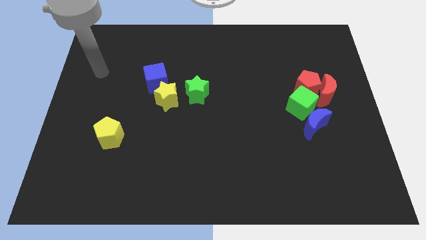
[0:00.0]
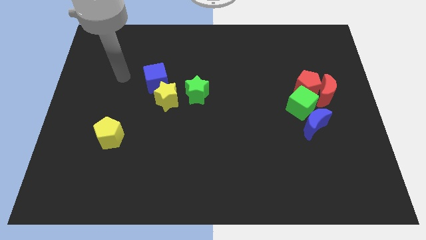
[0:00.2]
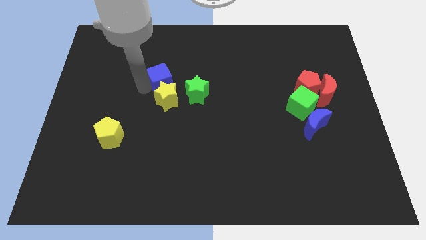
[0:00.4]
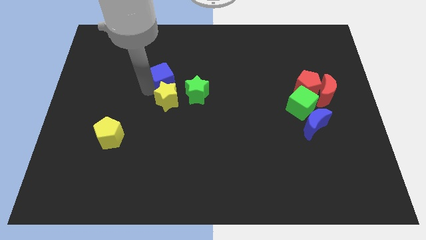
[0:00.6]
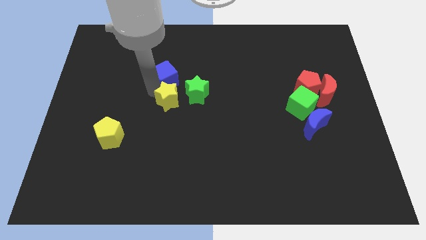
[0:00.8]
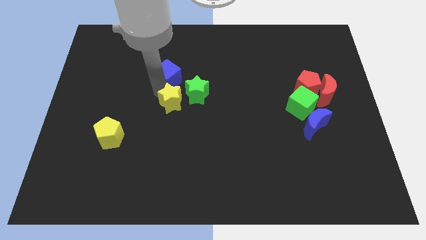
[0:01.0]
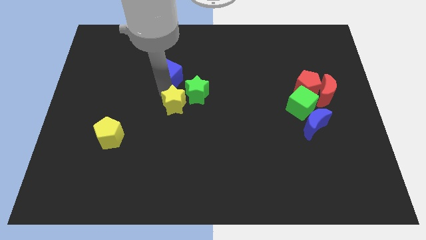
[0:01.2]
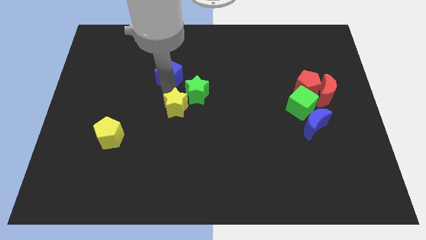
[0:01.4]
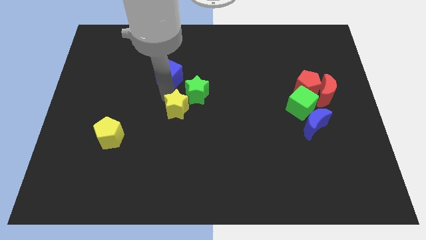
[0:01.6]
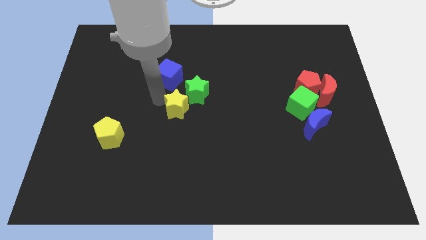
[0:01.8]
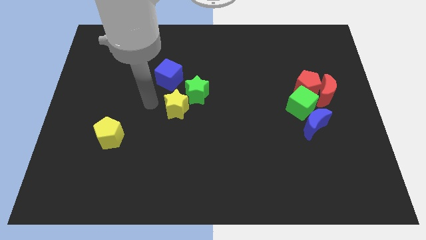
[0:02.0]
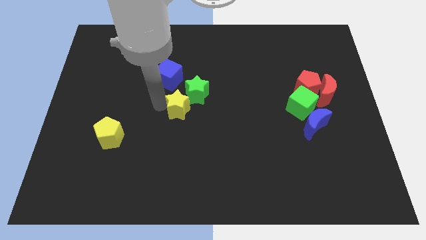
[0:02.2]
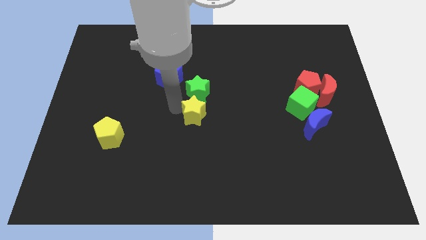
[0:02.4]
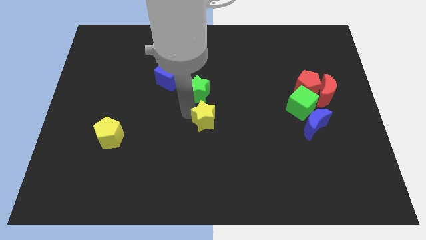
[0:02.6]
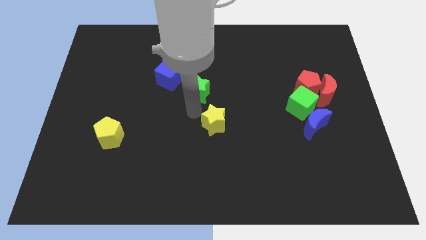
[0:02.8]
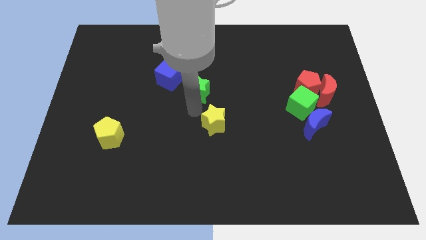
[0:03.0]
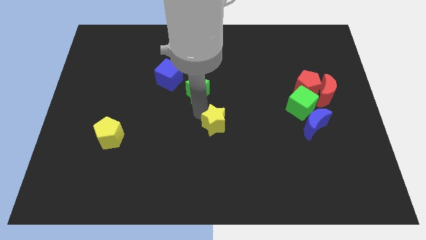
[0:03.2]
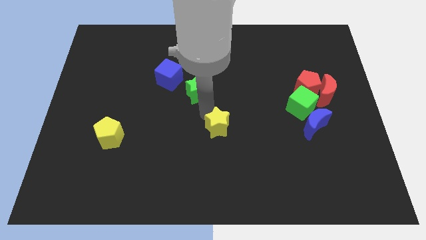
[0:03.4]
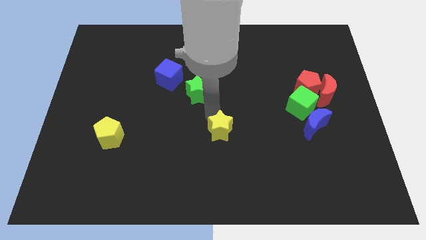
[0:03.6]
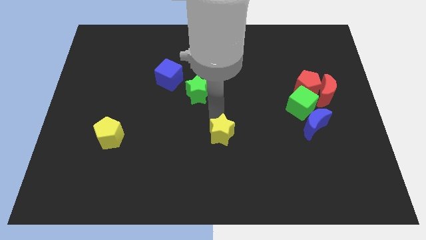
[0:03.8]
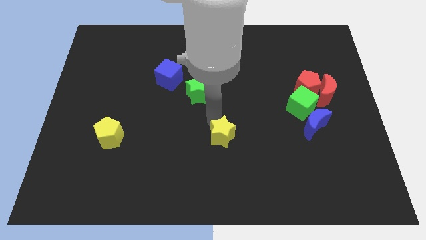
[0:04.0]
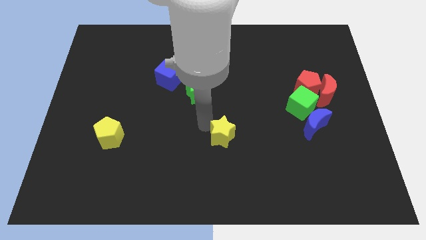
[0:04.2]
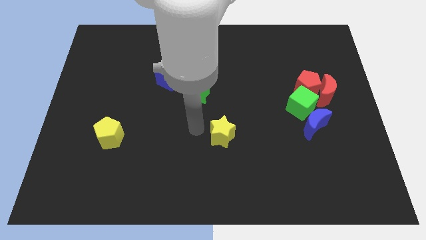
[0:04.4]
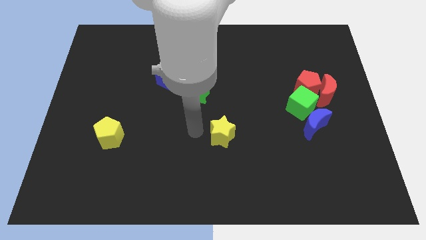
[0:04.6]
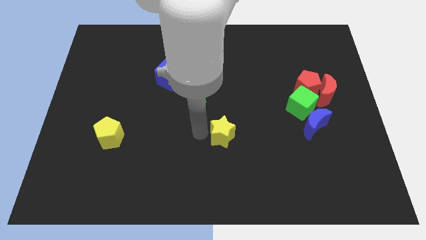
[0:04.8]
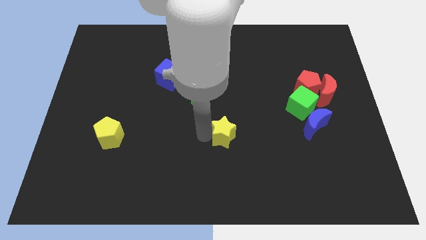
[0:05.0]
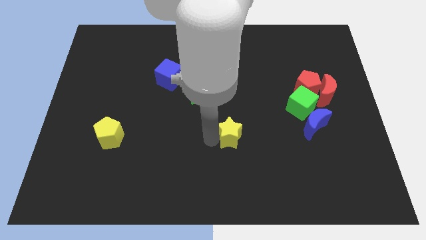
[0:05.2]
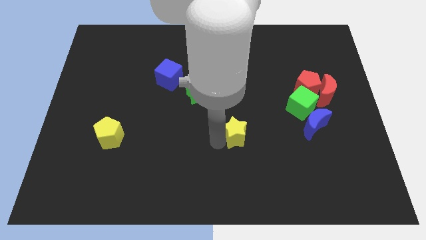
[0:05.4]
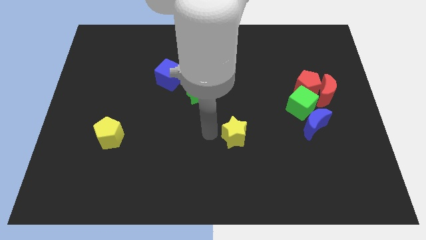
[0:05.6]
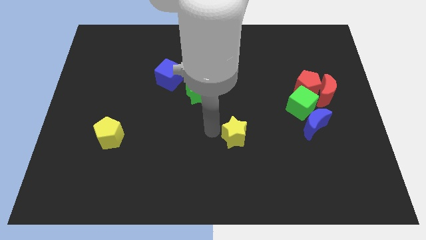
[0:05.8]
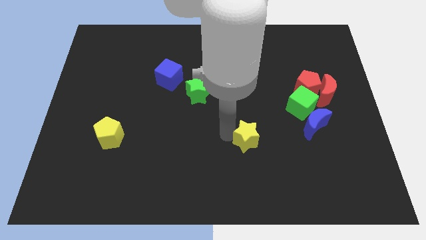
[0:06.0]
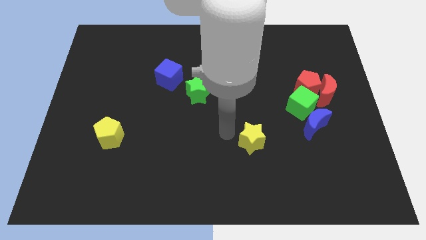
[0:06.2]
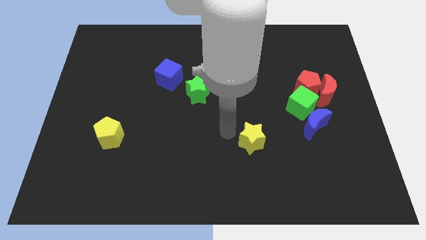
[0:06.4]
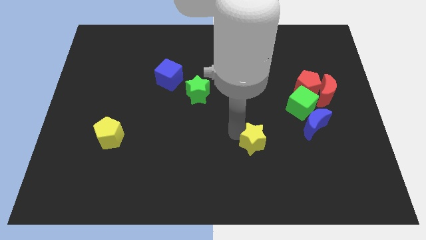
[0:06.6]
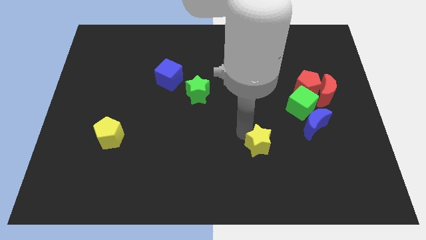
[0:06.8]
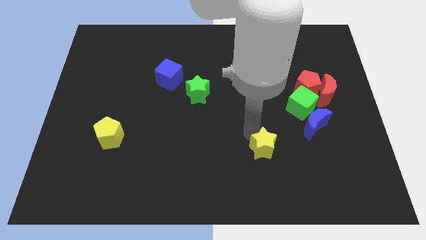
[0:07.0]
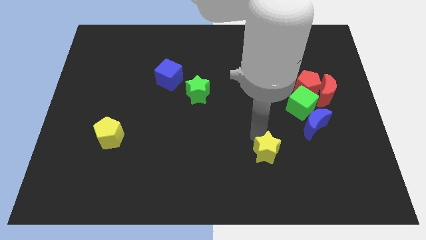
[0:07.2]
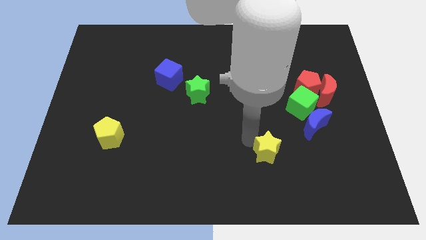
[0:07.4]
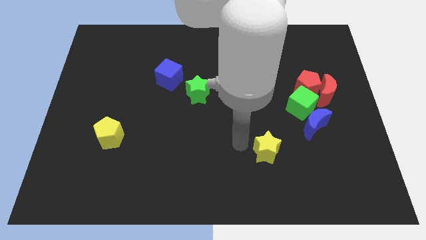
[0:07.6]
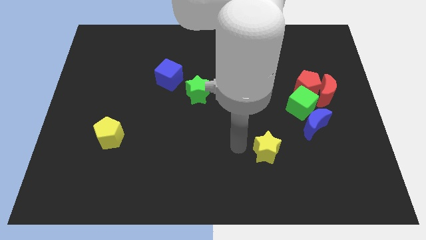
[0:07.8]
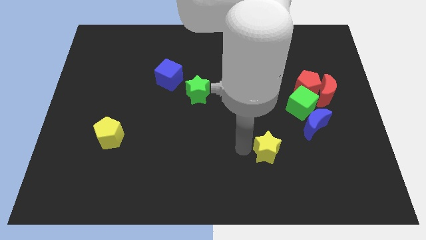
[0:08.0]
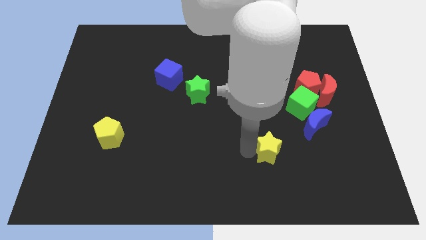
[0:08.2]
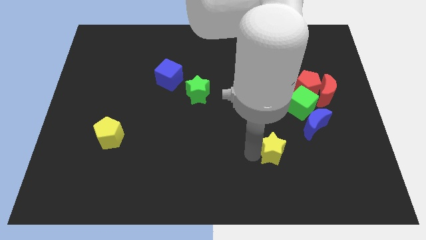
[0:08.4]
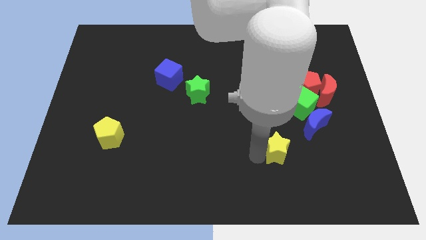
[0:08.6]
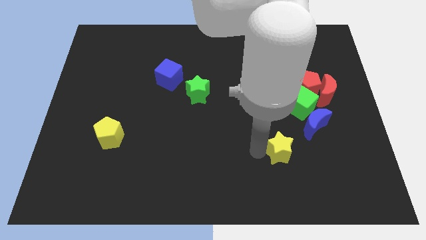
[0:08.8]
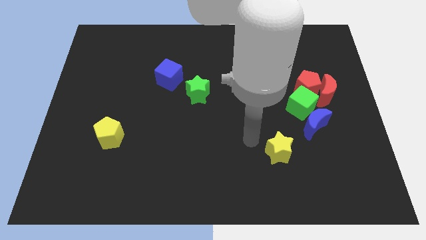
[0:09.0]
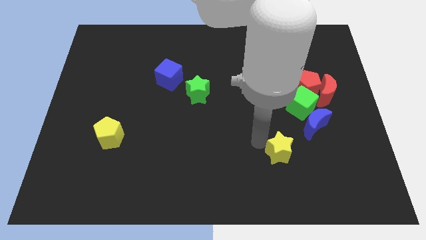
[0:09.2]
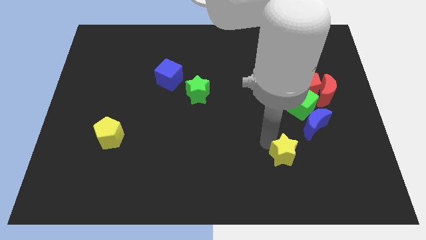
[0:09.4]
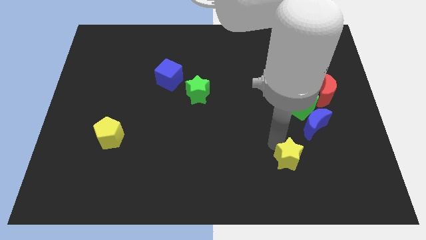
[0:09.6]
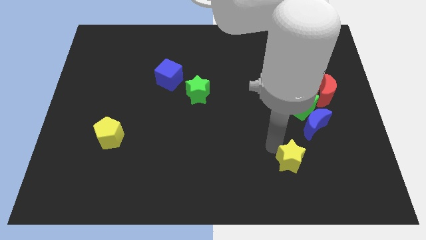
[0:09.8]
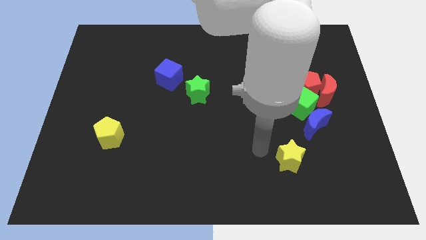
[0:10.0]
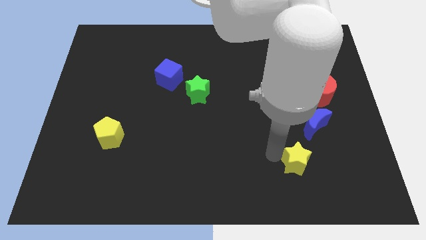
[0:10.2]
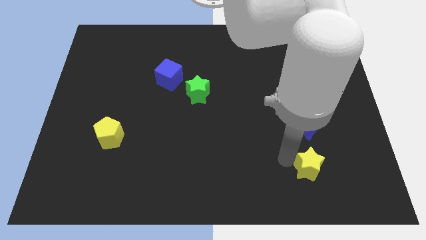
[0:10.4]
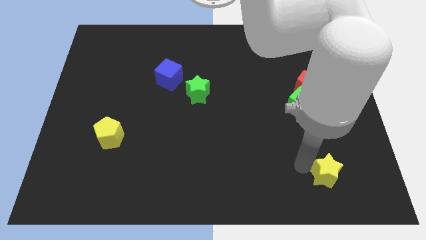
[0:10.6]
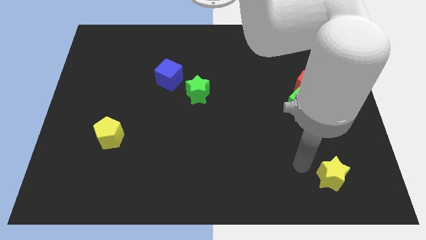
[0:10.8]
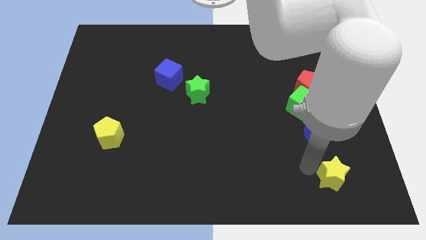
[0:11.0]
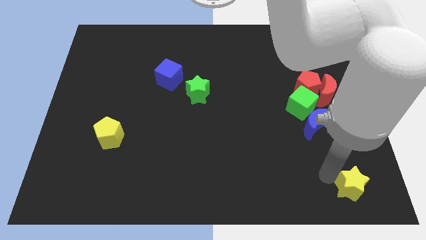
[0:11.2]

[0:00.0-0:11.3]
put the yellow star to the bottom right corner

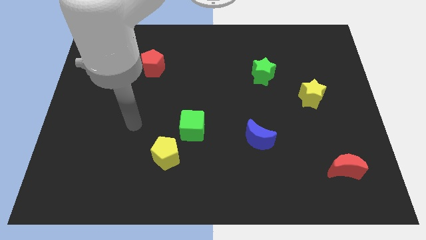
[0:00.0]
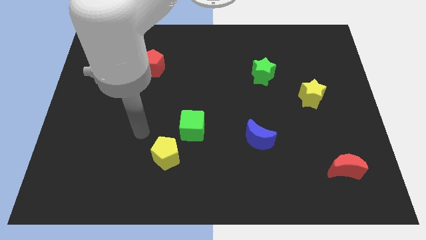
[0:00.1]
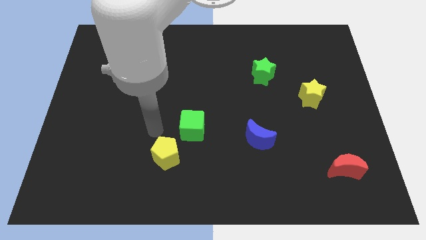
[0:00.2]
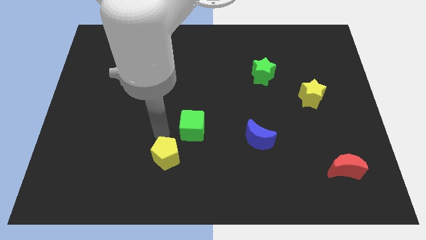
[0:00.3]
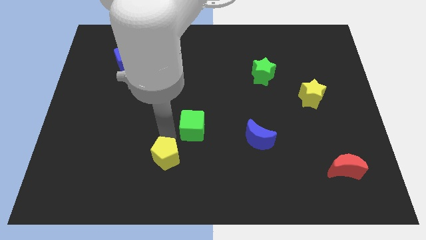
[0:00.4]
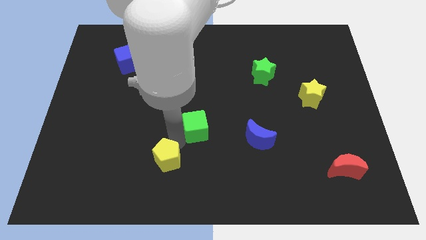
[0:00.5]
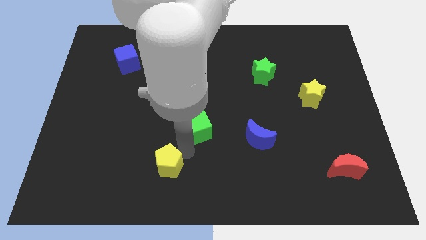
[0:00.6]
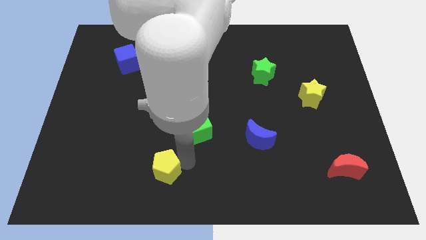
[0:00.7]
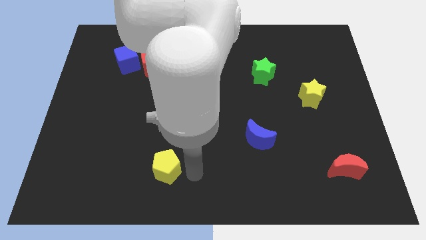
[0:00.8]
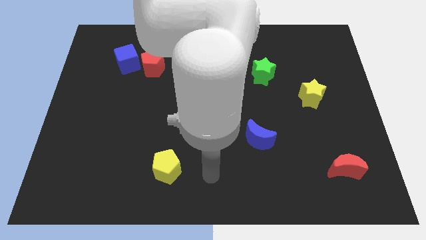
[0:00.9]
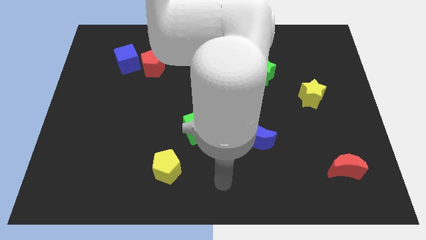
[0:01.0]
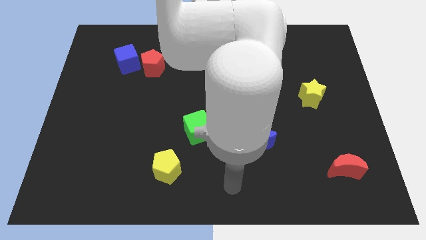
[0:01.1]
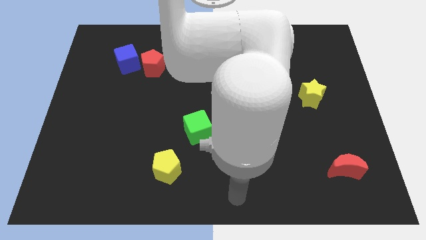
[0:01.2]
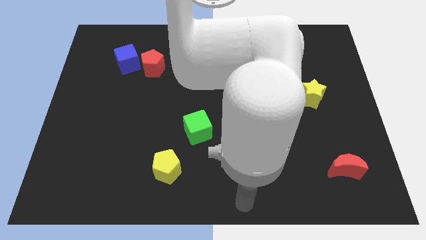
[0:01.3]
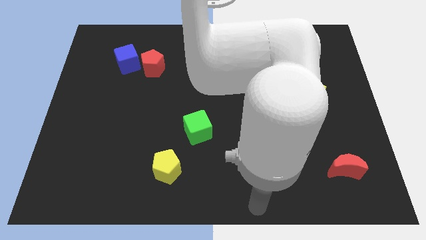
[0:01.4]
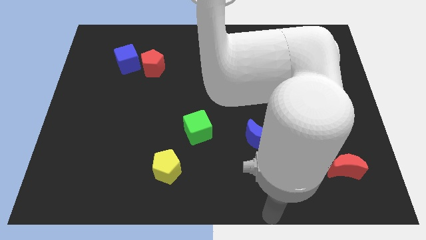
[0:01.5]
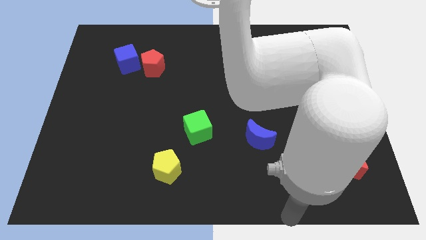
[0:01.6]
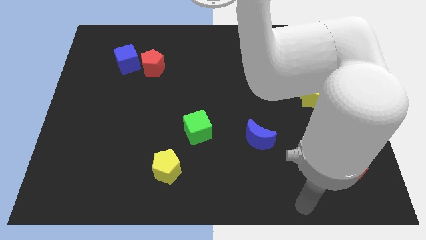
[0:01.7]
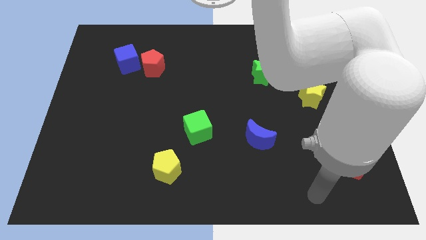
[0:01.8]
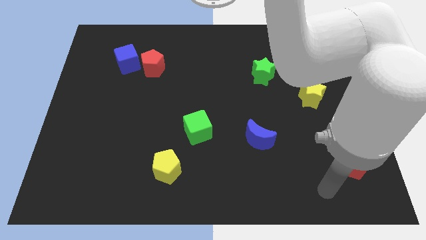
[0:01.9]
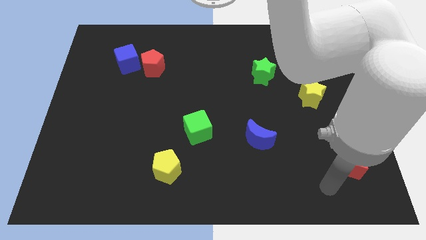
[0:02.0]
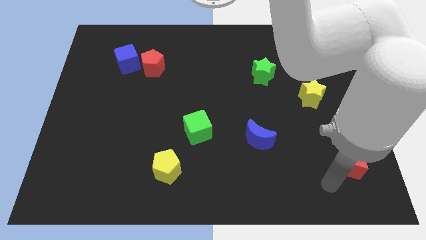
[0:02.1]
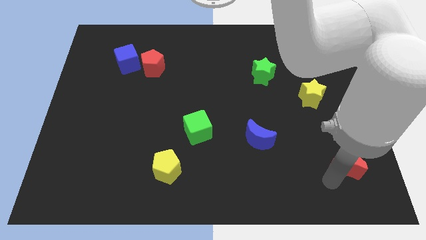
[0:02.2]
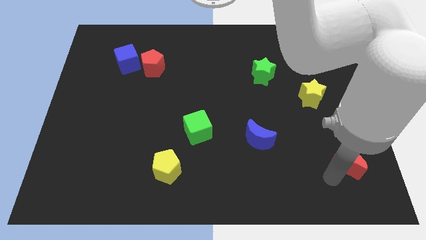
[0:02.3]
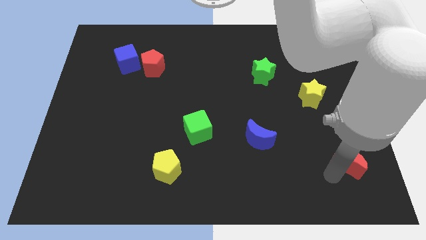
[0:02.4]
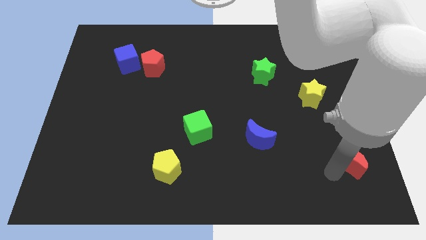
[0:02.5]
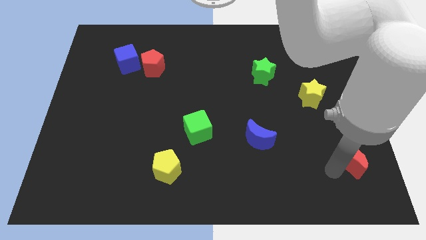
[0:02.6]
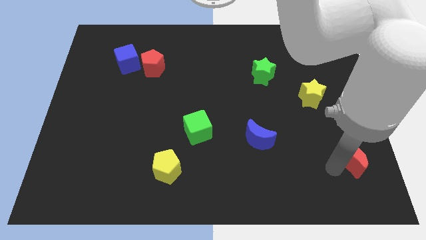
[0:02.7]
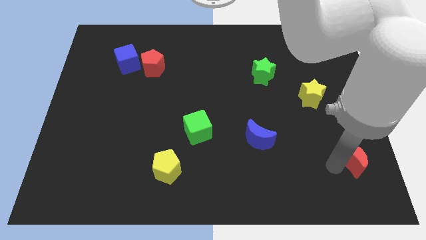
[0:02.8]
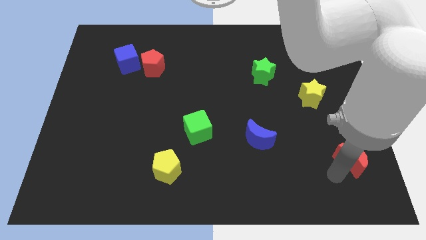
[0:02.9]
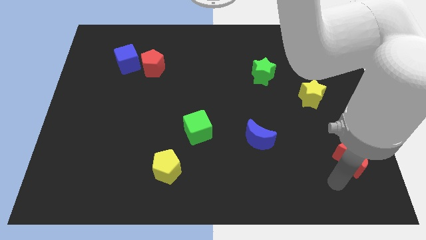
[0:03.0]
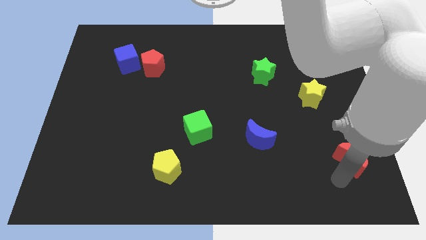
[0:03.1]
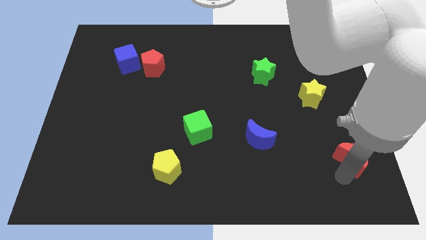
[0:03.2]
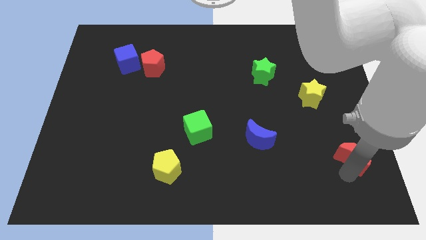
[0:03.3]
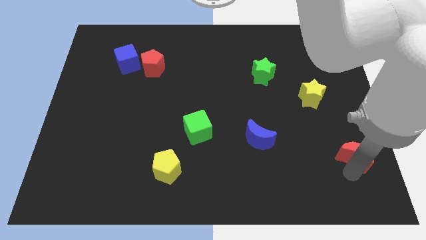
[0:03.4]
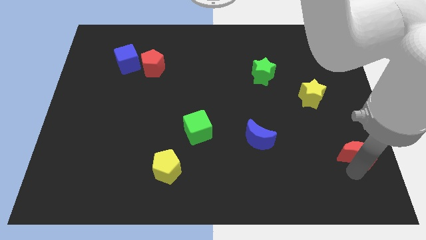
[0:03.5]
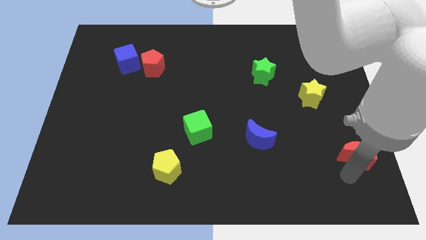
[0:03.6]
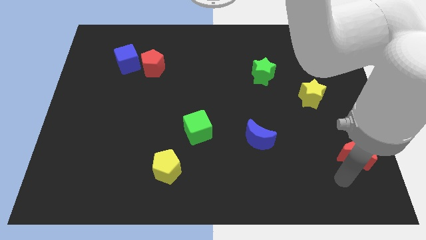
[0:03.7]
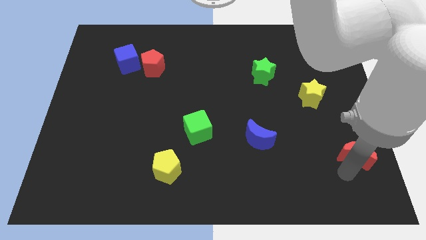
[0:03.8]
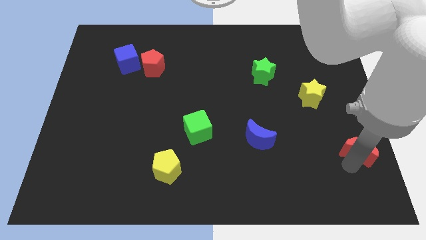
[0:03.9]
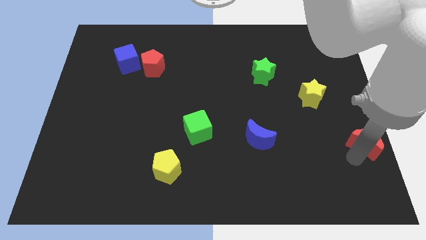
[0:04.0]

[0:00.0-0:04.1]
put the red moon to the right side of the board
